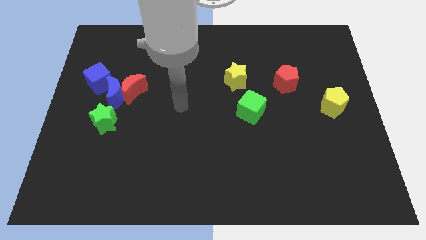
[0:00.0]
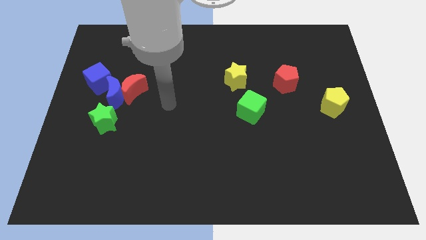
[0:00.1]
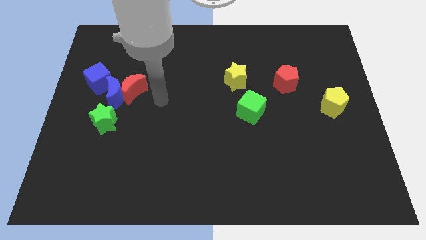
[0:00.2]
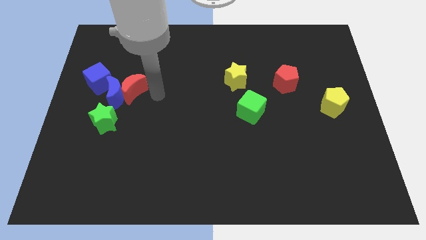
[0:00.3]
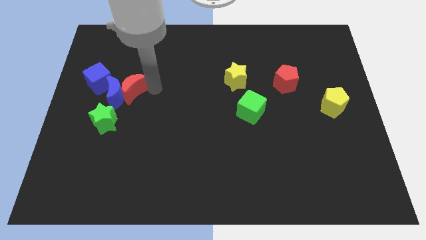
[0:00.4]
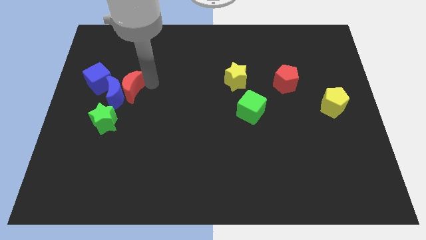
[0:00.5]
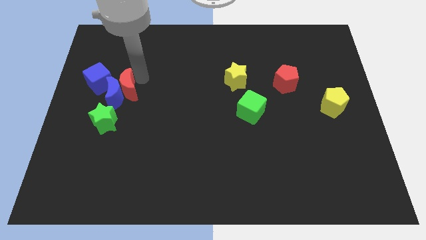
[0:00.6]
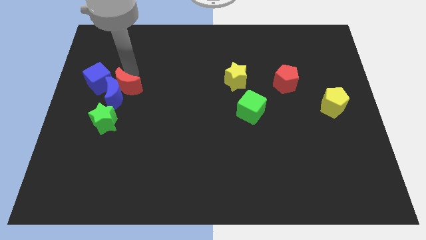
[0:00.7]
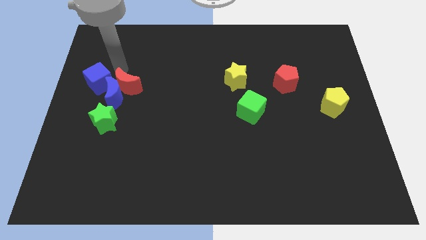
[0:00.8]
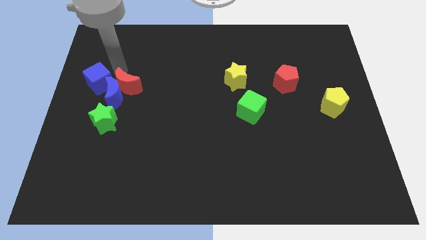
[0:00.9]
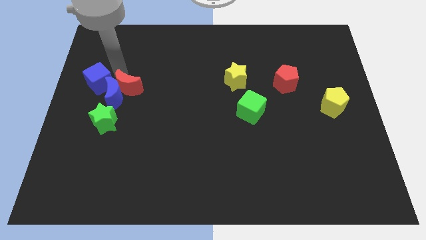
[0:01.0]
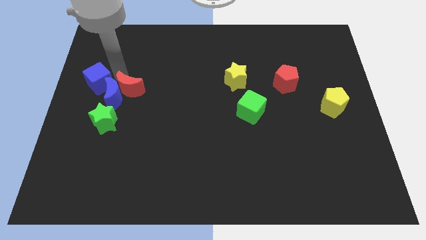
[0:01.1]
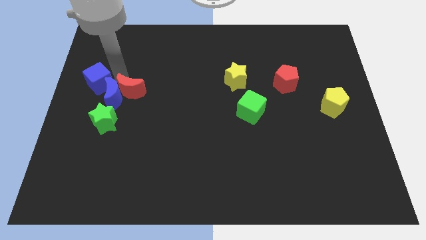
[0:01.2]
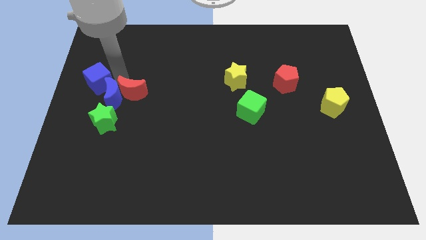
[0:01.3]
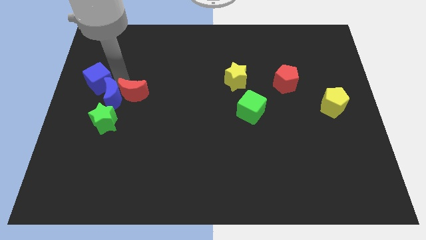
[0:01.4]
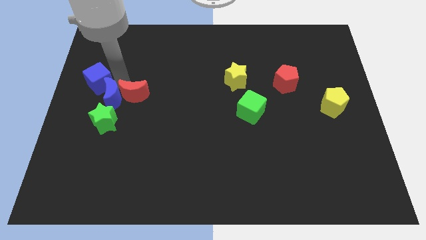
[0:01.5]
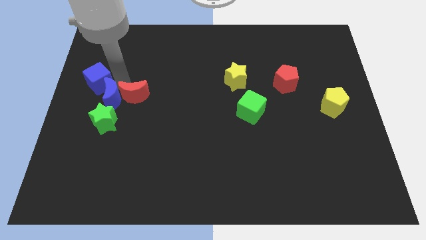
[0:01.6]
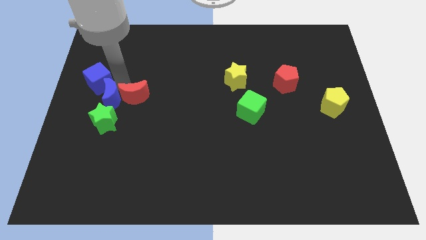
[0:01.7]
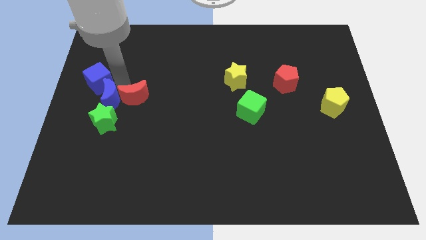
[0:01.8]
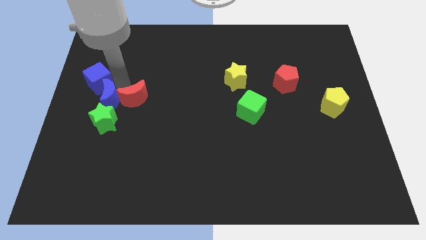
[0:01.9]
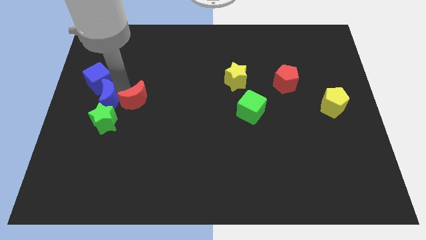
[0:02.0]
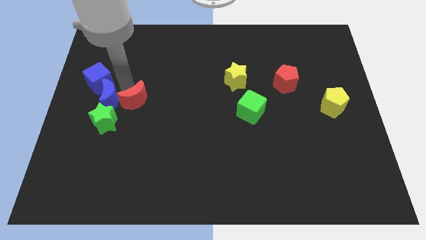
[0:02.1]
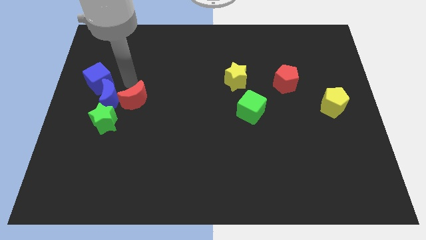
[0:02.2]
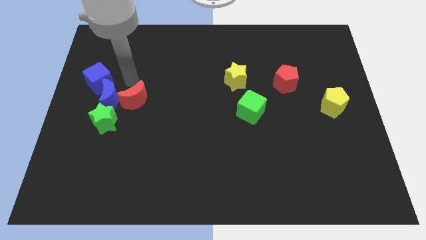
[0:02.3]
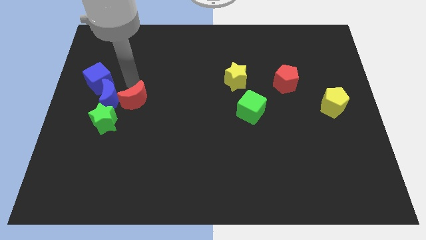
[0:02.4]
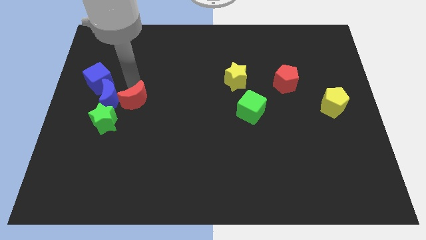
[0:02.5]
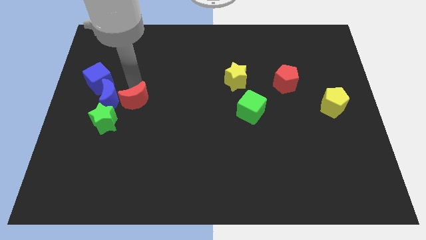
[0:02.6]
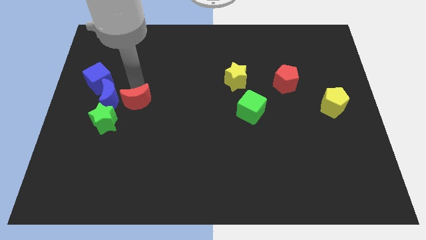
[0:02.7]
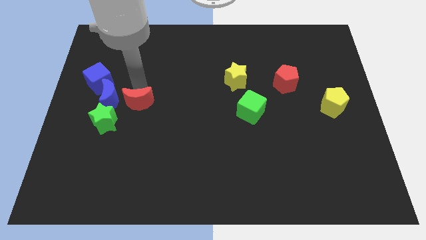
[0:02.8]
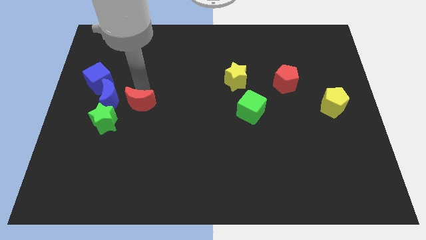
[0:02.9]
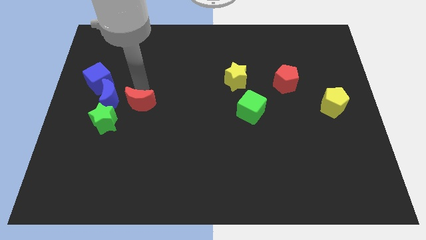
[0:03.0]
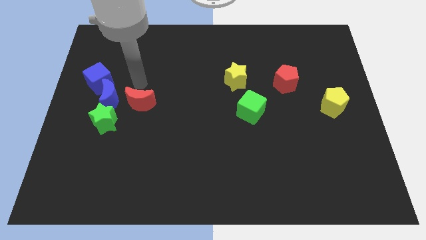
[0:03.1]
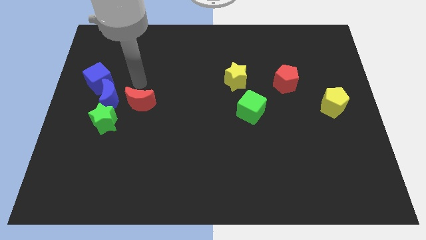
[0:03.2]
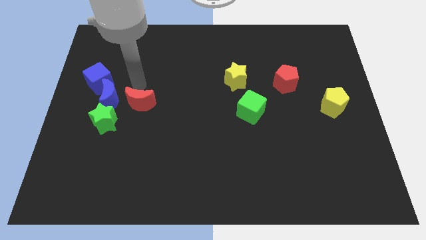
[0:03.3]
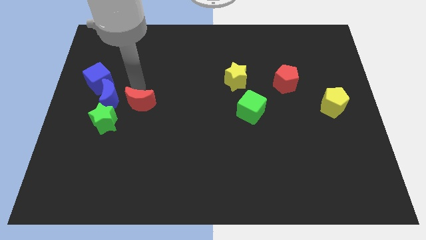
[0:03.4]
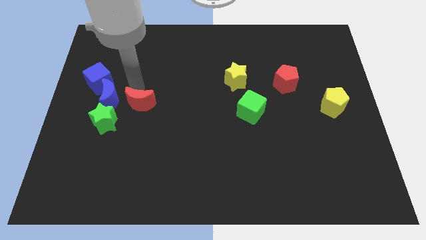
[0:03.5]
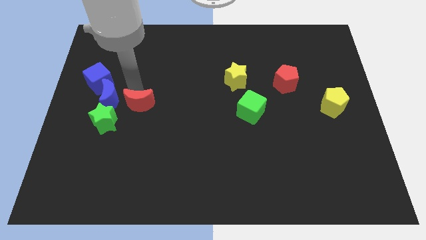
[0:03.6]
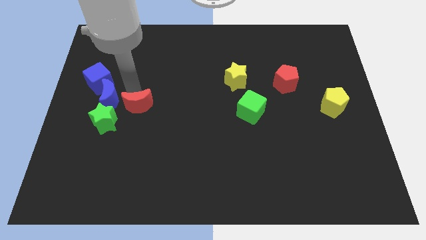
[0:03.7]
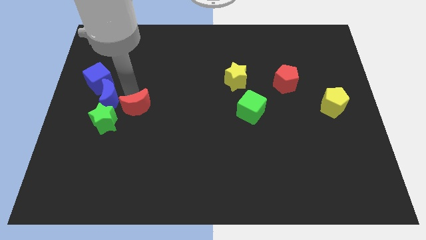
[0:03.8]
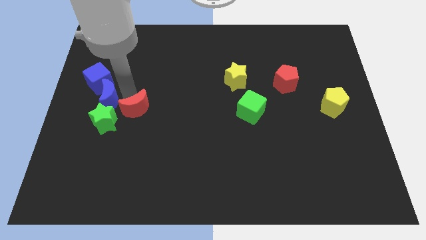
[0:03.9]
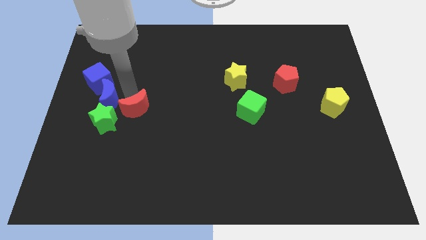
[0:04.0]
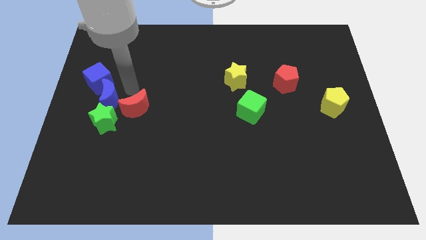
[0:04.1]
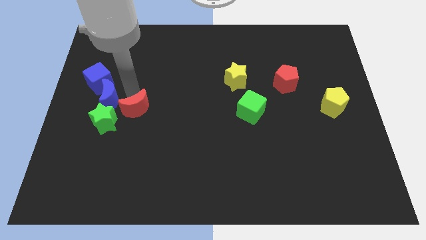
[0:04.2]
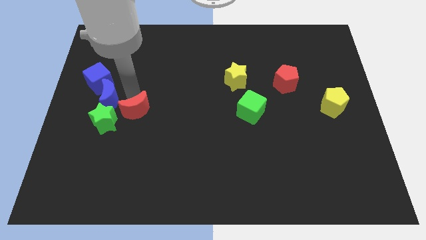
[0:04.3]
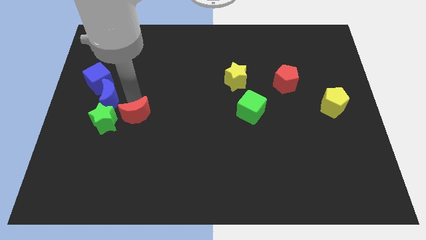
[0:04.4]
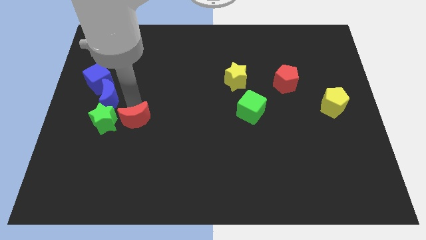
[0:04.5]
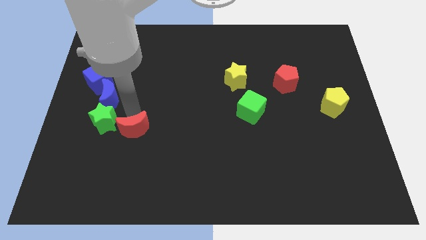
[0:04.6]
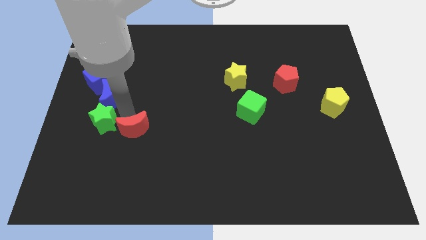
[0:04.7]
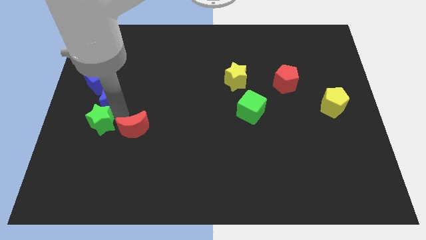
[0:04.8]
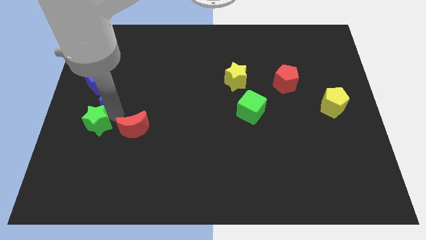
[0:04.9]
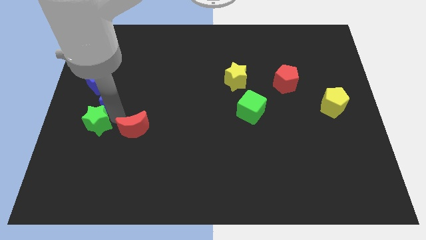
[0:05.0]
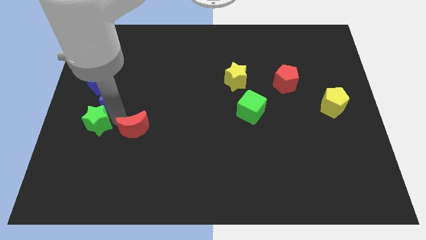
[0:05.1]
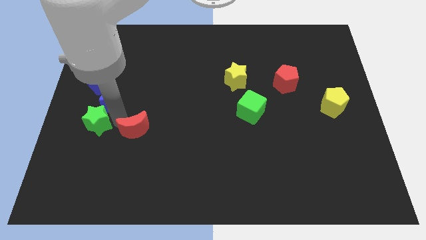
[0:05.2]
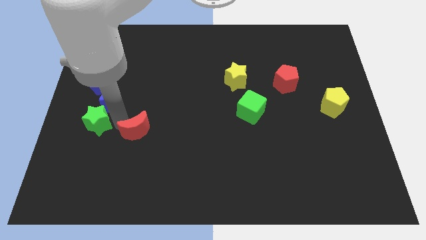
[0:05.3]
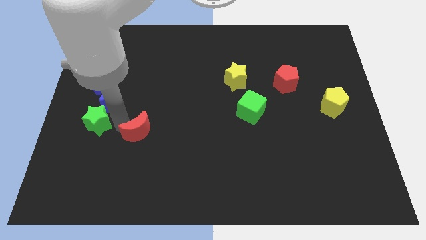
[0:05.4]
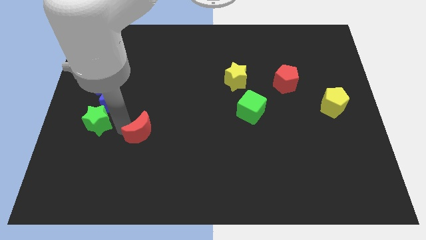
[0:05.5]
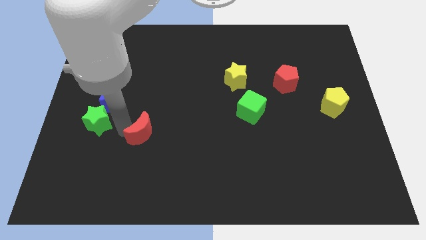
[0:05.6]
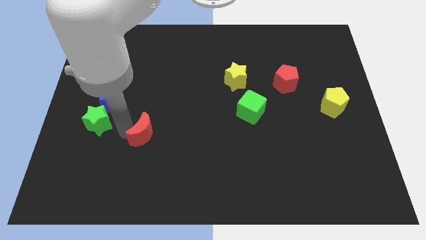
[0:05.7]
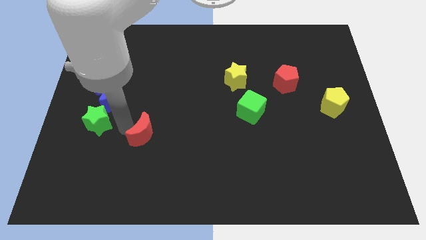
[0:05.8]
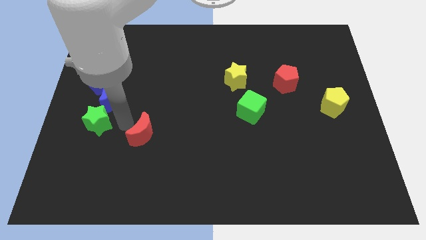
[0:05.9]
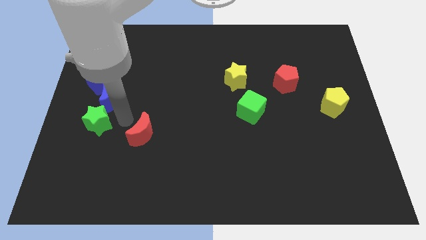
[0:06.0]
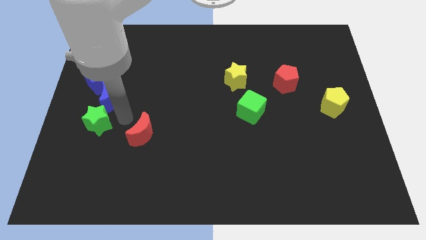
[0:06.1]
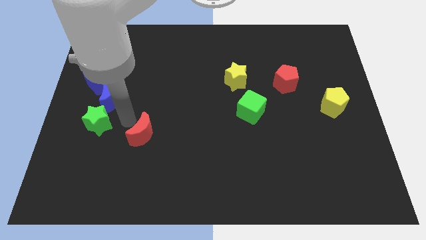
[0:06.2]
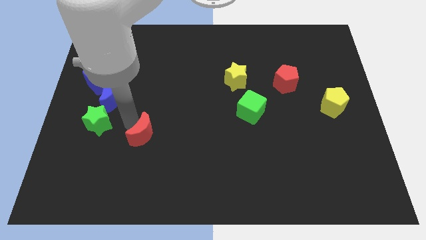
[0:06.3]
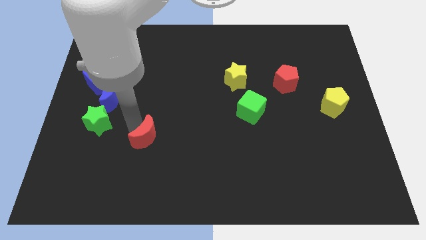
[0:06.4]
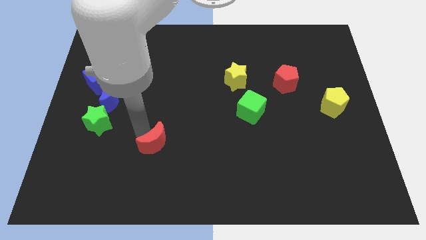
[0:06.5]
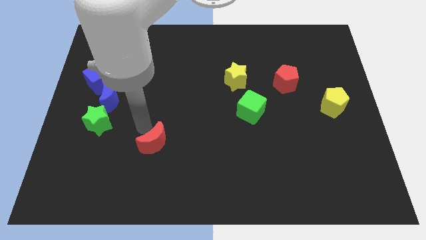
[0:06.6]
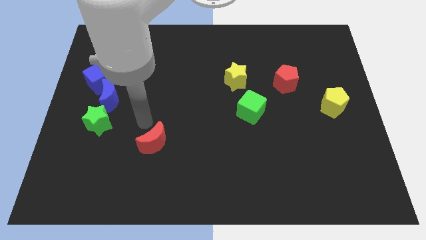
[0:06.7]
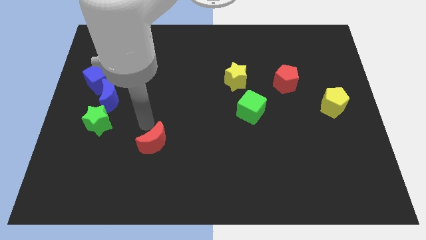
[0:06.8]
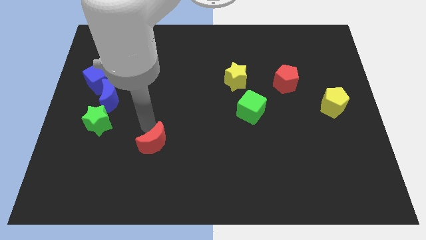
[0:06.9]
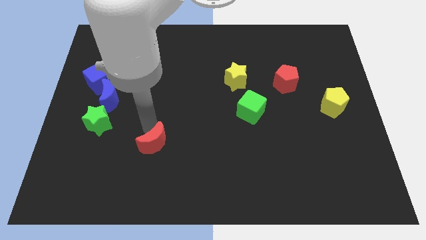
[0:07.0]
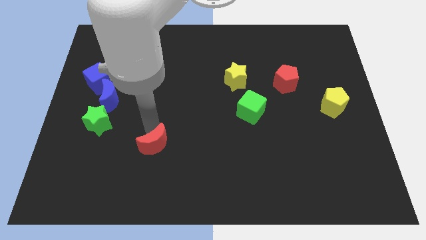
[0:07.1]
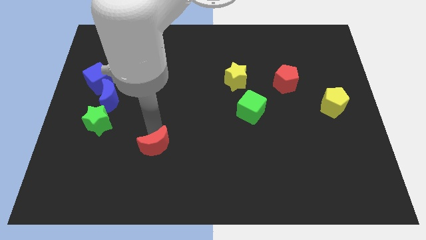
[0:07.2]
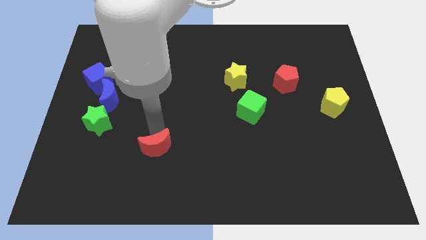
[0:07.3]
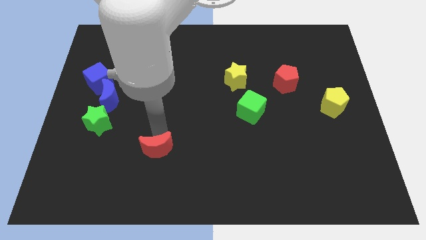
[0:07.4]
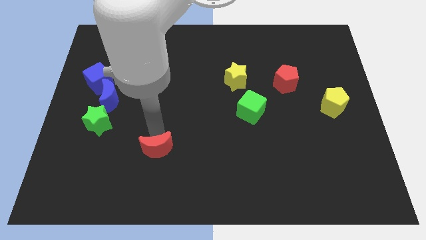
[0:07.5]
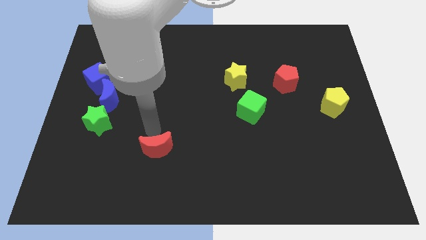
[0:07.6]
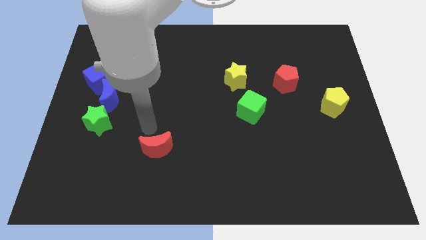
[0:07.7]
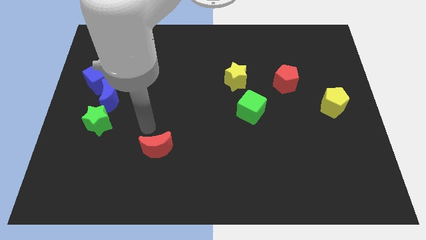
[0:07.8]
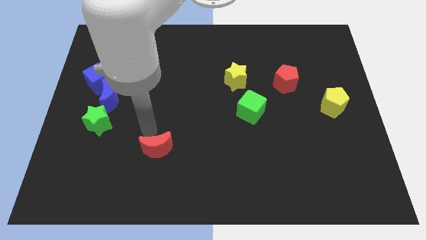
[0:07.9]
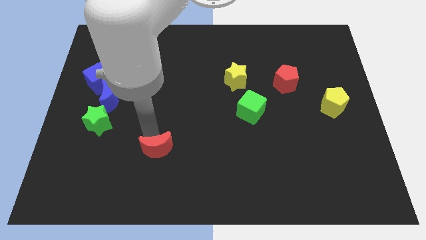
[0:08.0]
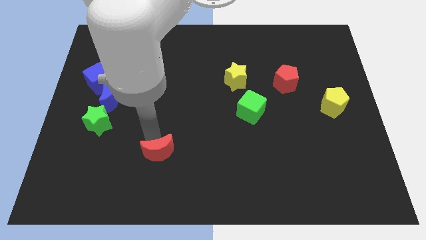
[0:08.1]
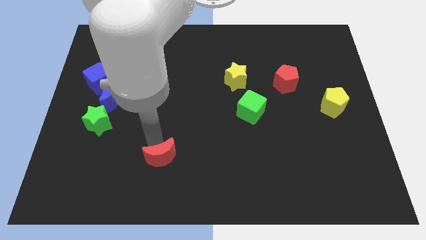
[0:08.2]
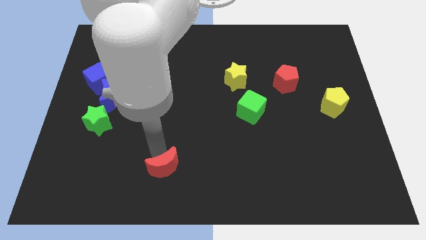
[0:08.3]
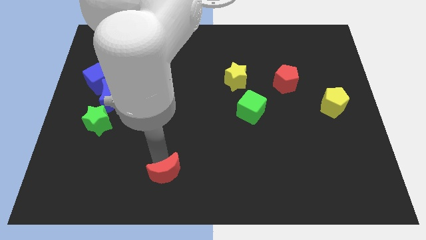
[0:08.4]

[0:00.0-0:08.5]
put the red moon to the bottom side
